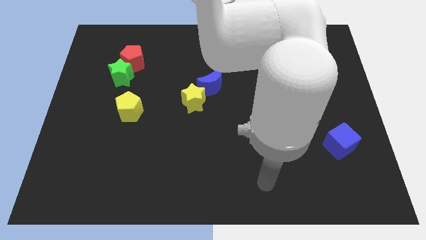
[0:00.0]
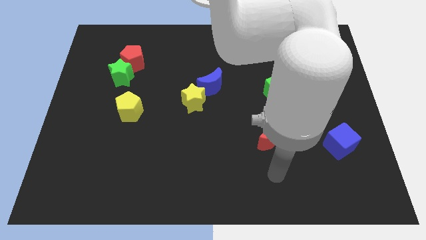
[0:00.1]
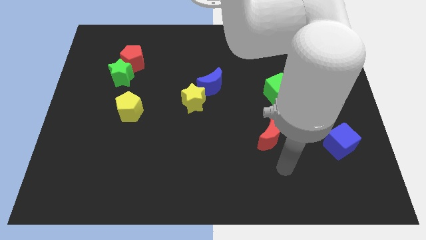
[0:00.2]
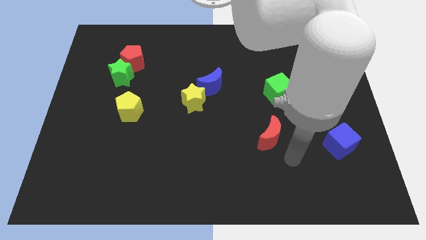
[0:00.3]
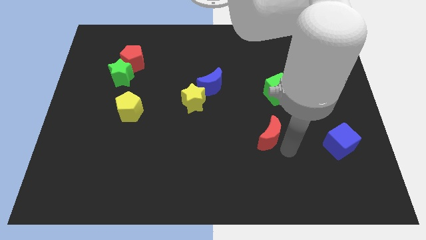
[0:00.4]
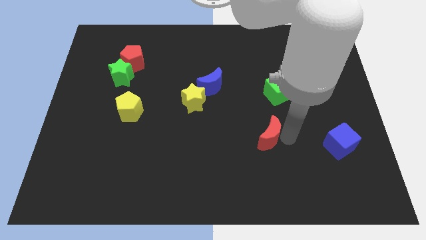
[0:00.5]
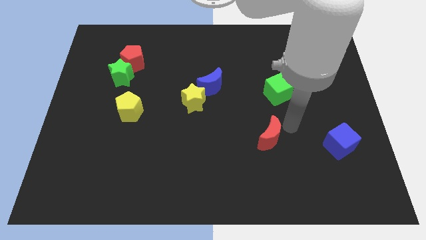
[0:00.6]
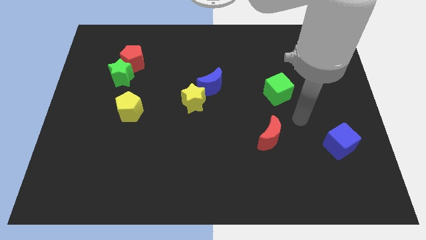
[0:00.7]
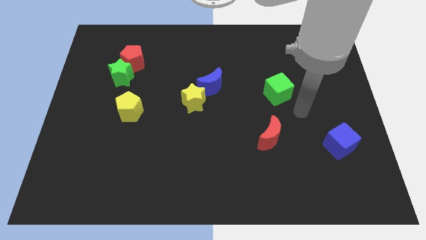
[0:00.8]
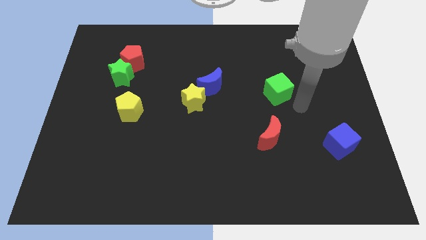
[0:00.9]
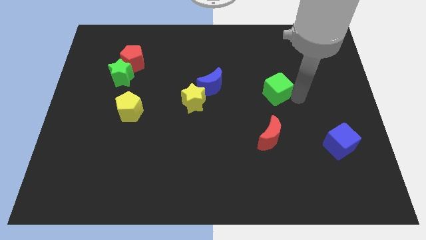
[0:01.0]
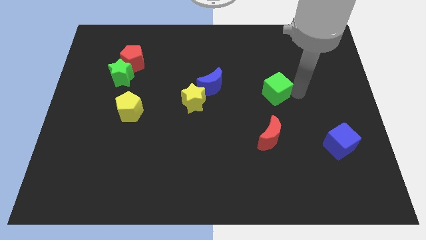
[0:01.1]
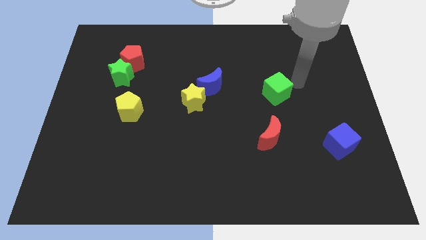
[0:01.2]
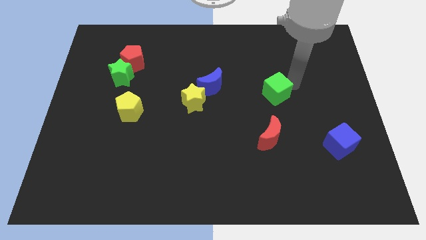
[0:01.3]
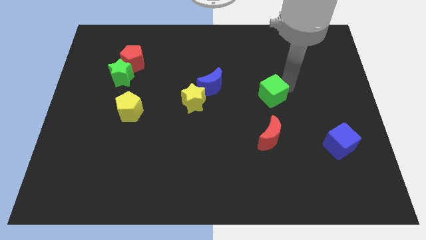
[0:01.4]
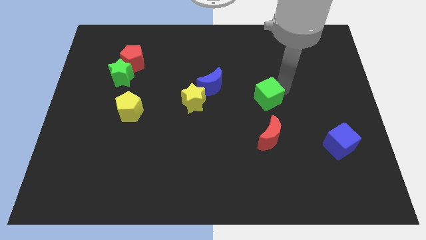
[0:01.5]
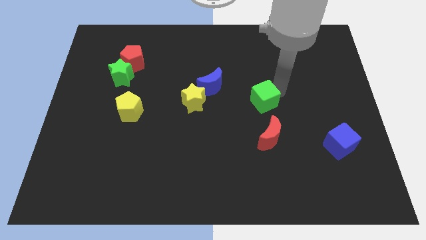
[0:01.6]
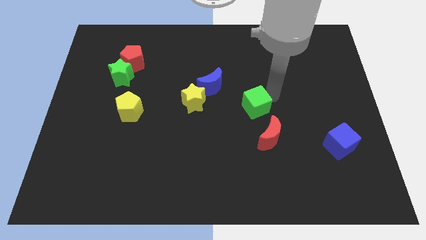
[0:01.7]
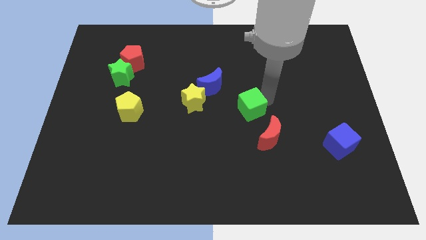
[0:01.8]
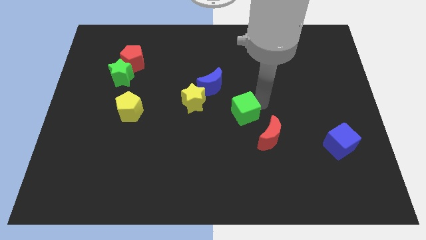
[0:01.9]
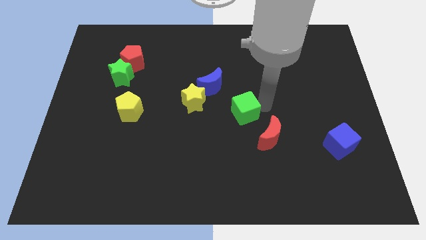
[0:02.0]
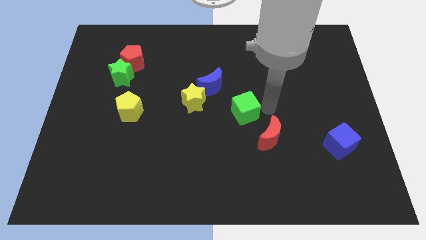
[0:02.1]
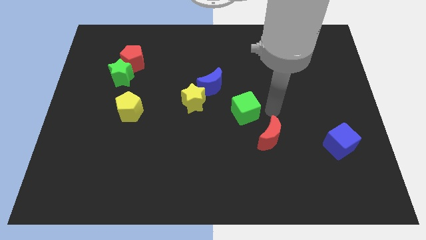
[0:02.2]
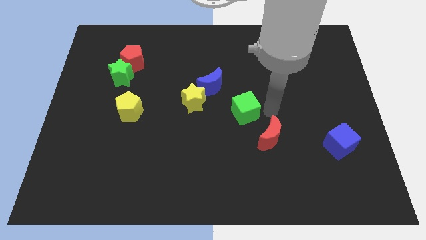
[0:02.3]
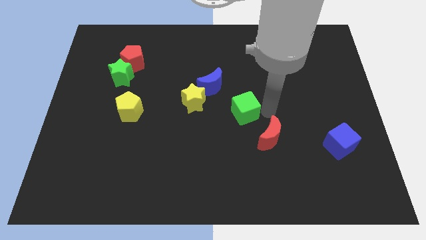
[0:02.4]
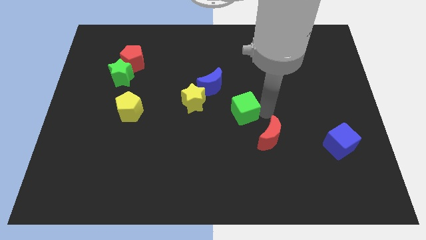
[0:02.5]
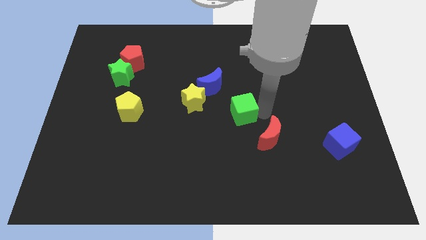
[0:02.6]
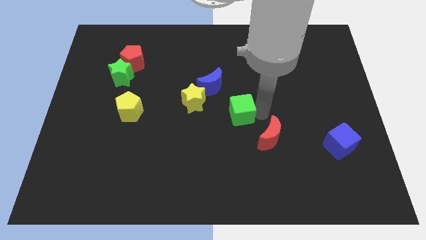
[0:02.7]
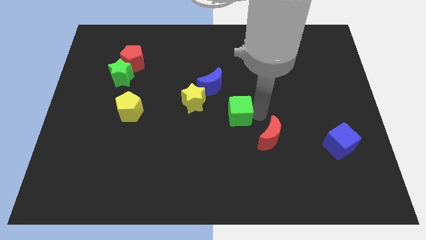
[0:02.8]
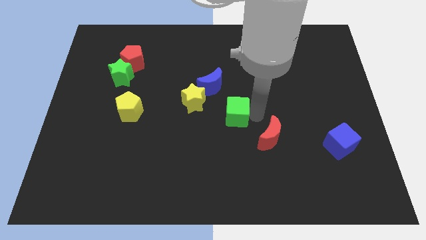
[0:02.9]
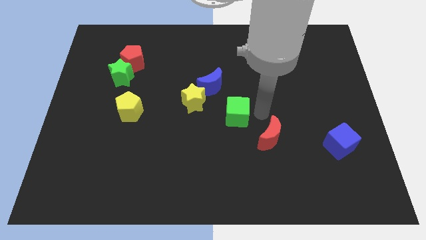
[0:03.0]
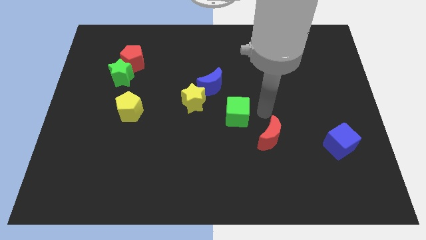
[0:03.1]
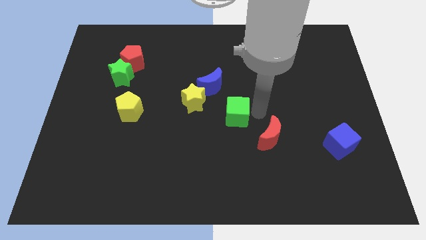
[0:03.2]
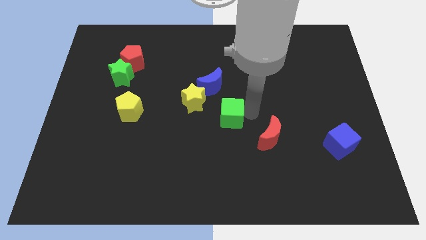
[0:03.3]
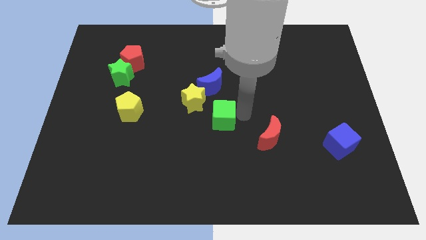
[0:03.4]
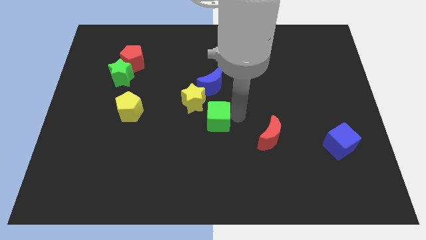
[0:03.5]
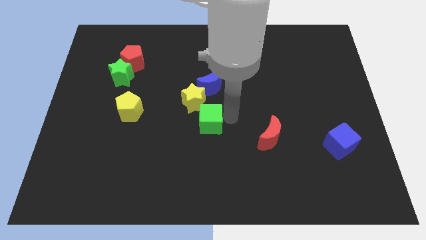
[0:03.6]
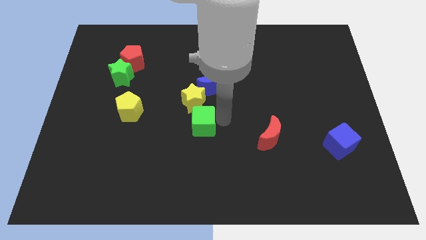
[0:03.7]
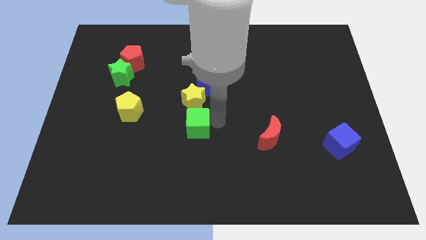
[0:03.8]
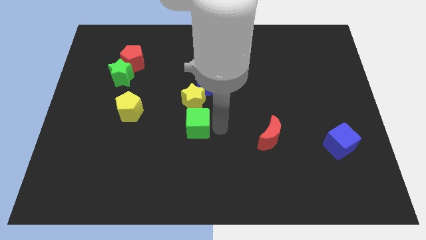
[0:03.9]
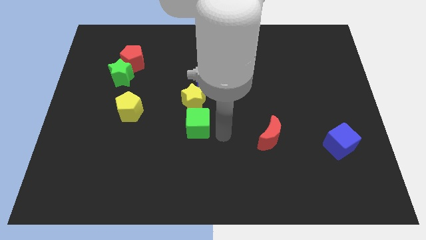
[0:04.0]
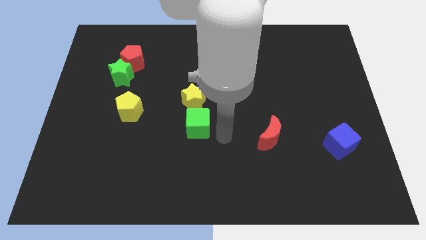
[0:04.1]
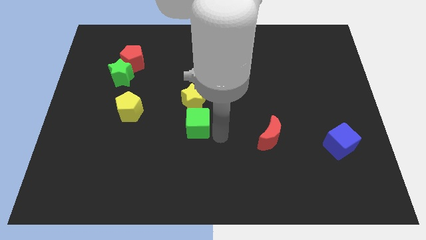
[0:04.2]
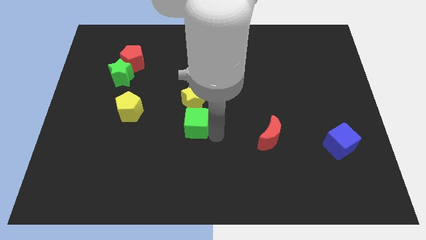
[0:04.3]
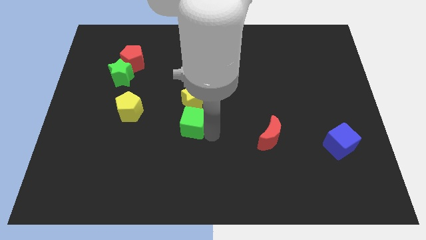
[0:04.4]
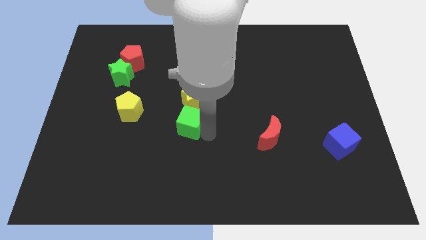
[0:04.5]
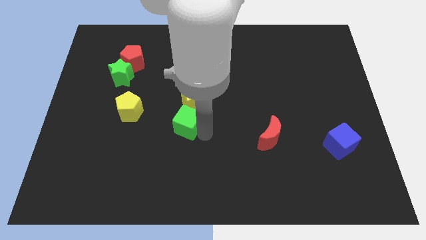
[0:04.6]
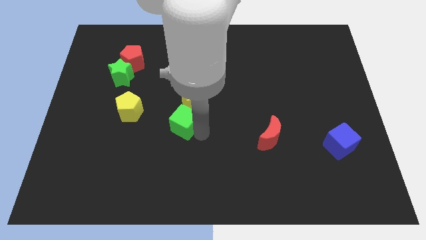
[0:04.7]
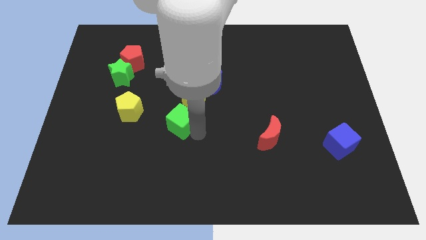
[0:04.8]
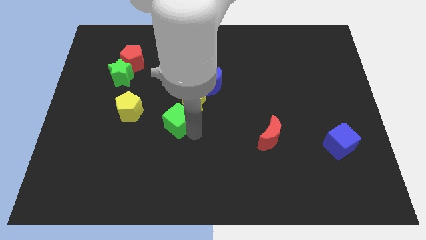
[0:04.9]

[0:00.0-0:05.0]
move the green cube to the left

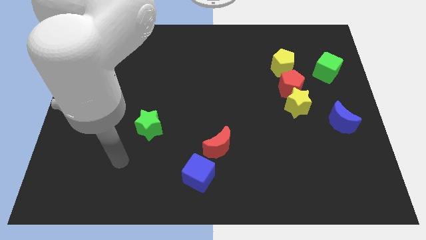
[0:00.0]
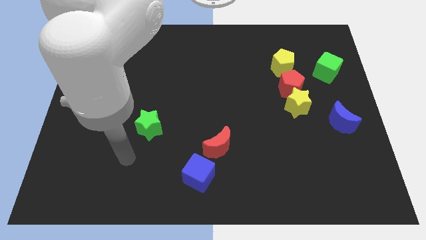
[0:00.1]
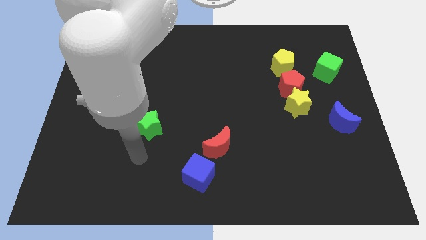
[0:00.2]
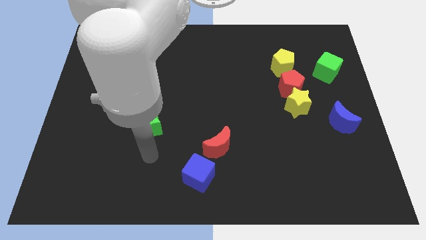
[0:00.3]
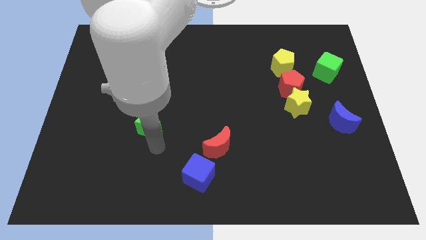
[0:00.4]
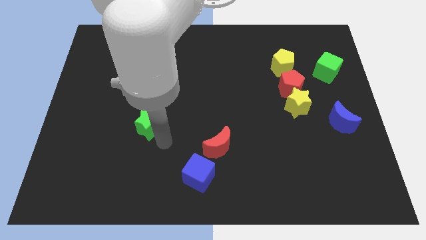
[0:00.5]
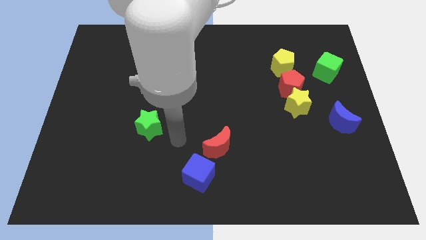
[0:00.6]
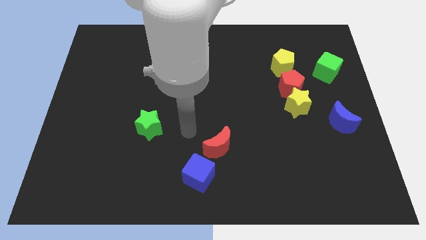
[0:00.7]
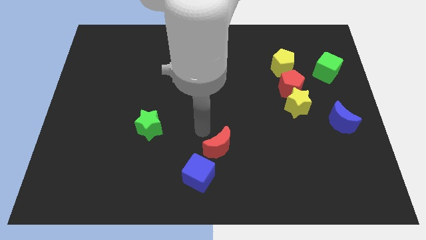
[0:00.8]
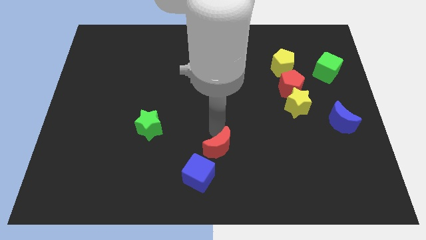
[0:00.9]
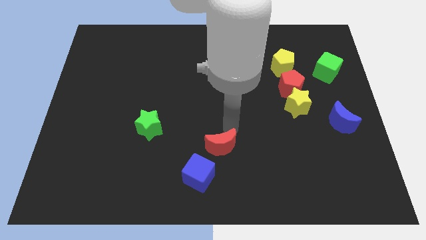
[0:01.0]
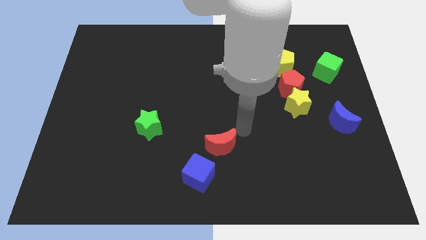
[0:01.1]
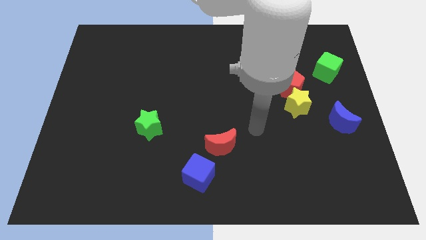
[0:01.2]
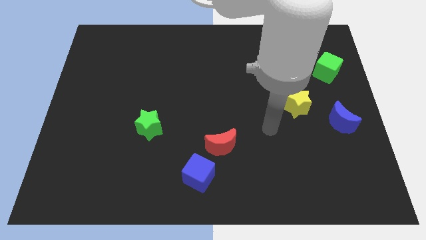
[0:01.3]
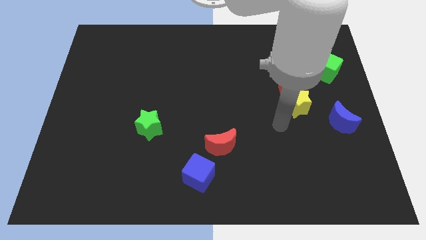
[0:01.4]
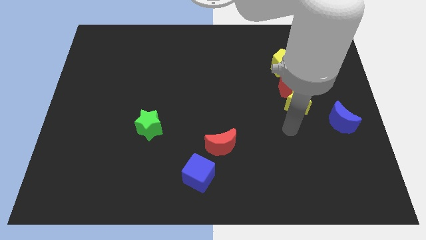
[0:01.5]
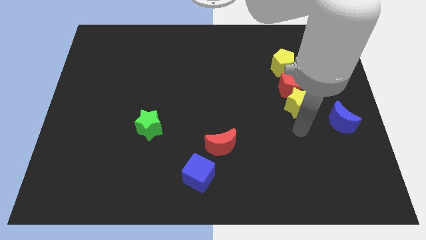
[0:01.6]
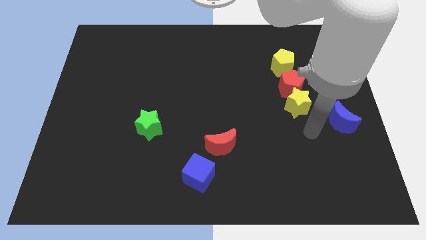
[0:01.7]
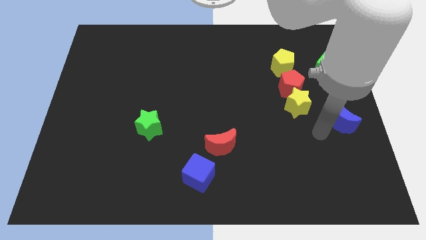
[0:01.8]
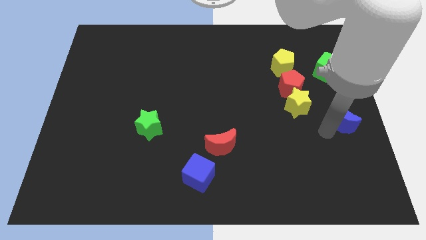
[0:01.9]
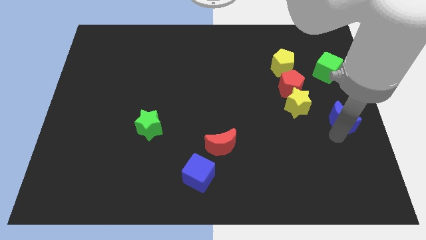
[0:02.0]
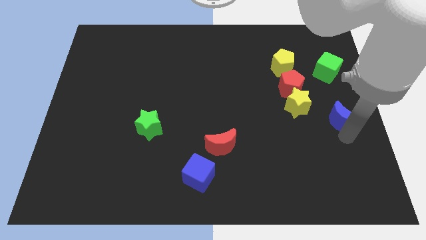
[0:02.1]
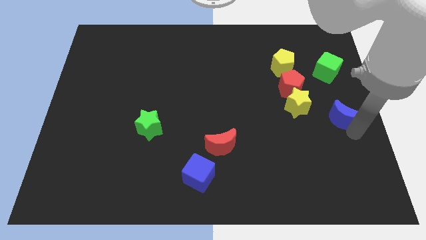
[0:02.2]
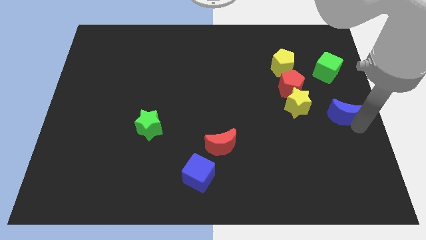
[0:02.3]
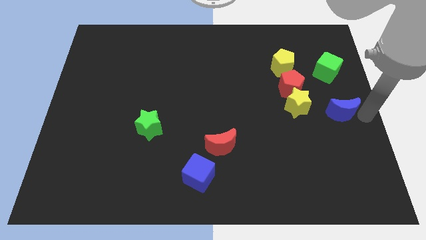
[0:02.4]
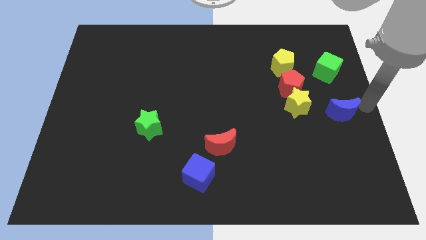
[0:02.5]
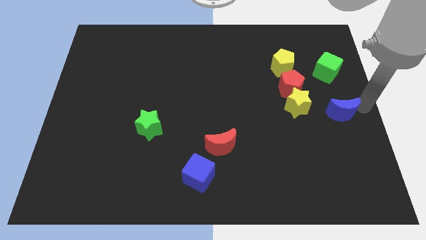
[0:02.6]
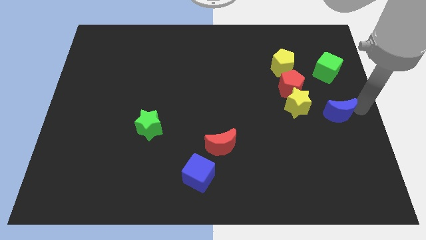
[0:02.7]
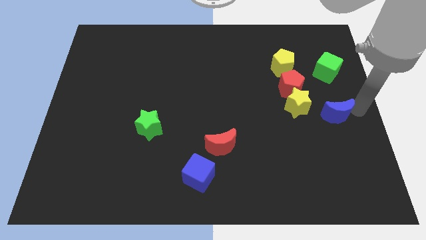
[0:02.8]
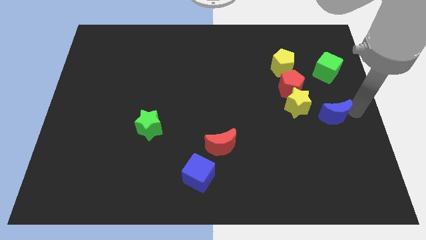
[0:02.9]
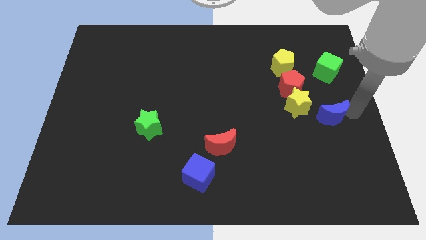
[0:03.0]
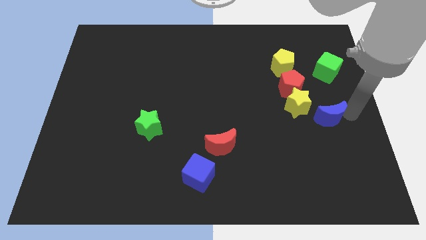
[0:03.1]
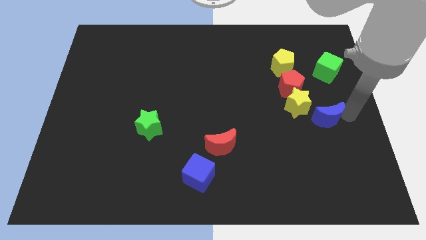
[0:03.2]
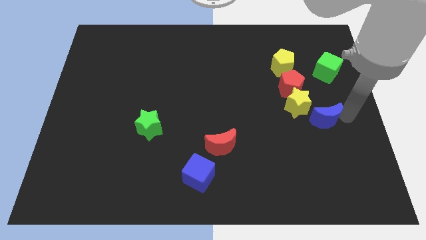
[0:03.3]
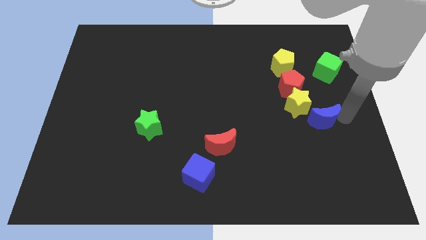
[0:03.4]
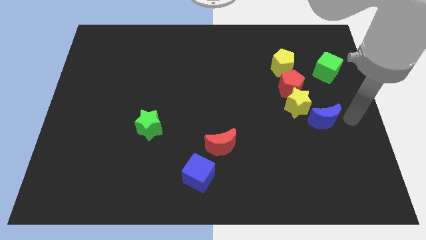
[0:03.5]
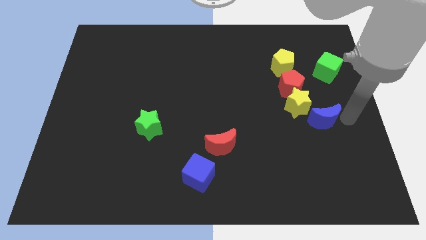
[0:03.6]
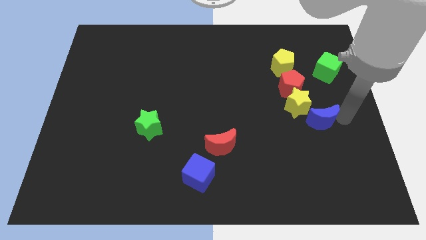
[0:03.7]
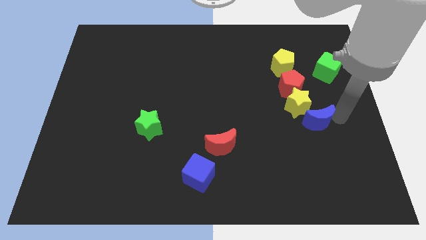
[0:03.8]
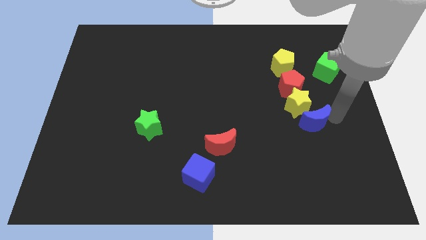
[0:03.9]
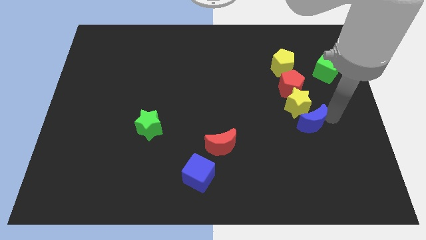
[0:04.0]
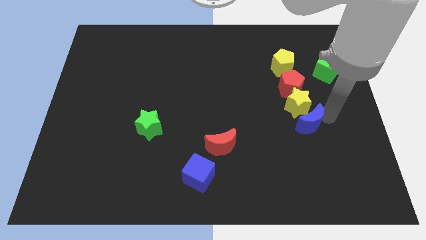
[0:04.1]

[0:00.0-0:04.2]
slightly move the blue moon to the left
